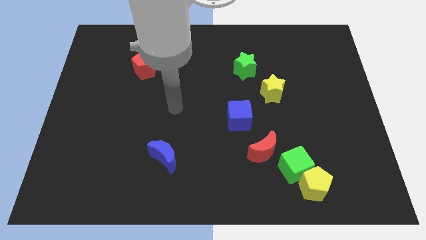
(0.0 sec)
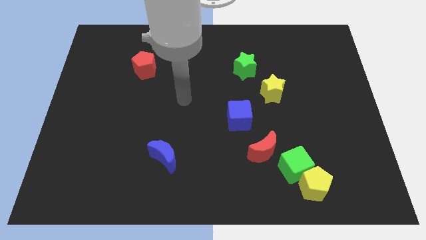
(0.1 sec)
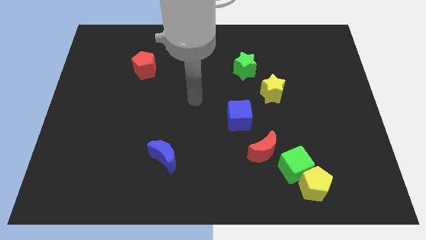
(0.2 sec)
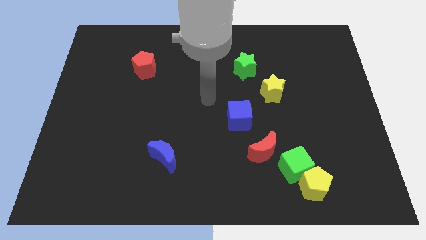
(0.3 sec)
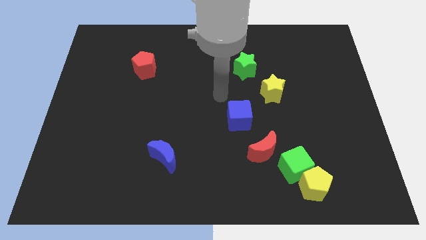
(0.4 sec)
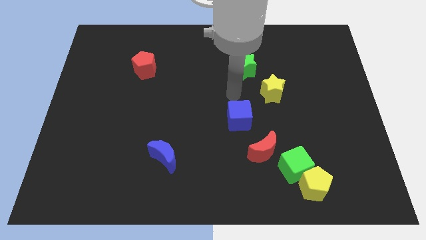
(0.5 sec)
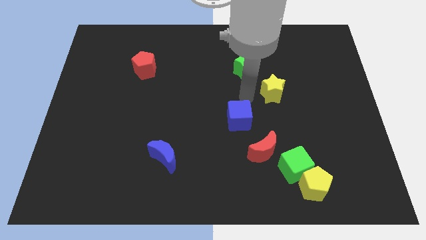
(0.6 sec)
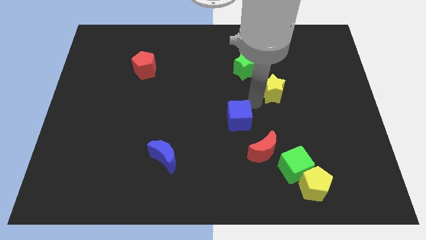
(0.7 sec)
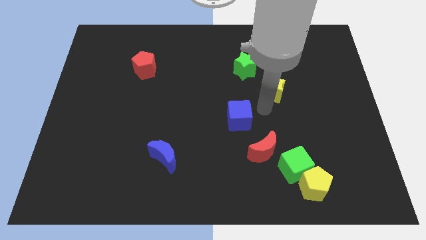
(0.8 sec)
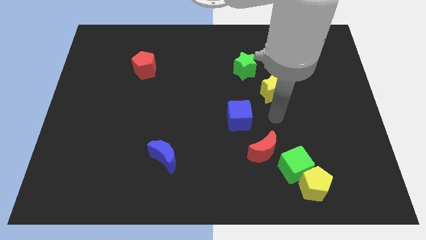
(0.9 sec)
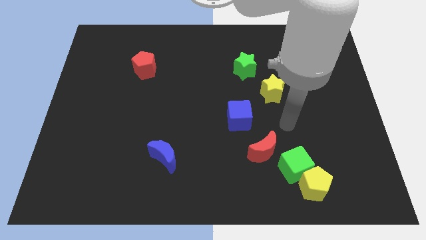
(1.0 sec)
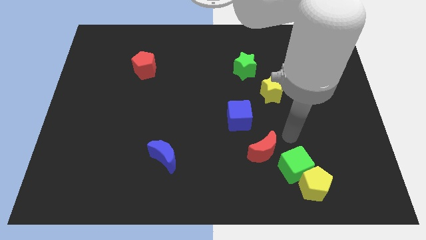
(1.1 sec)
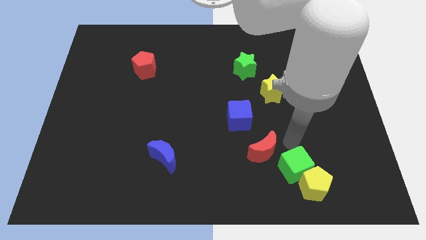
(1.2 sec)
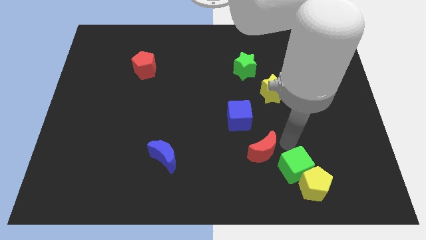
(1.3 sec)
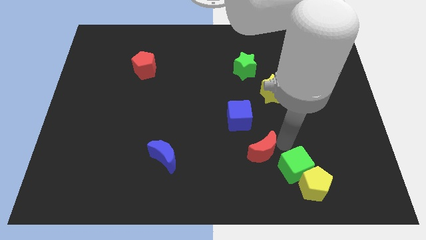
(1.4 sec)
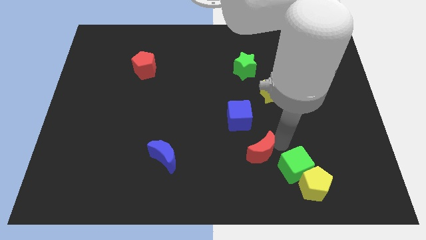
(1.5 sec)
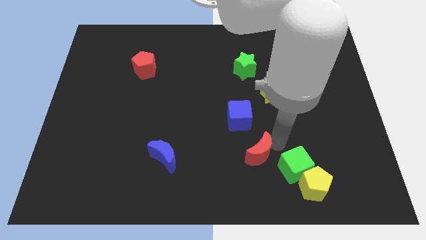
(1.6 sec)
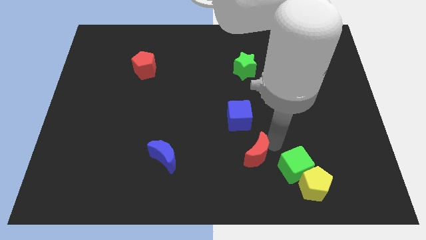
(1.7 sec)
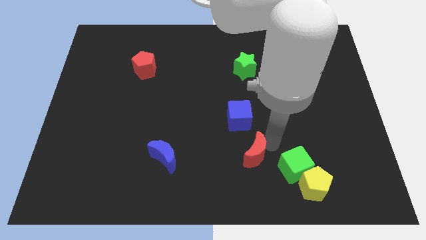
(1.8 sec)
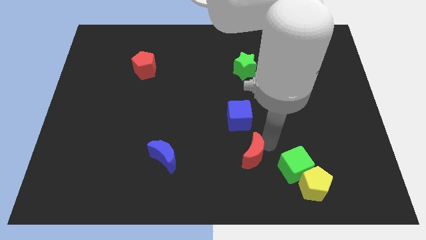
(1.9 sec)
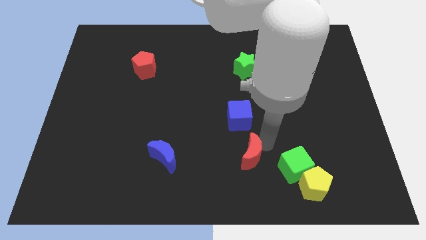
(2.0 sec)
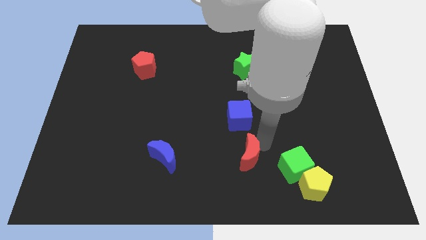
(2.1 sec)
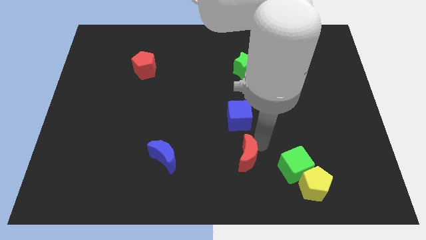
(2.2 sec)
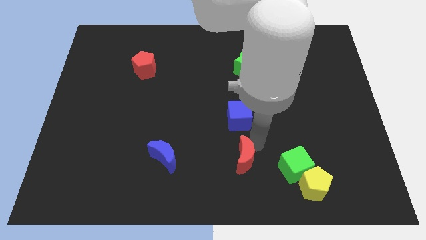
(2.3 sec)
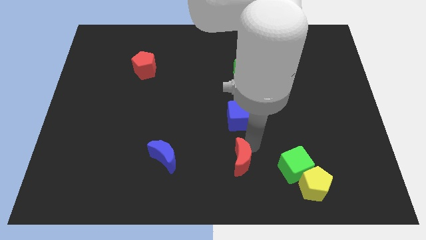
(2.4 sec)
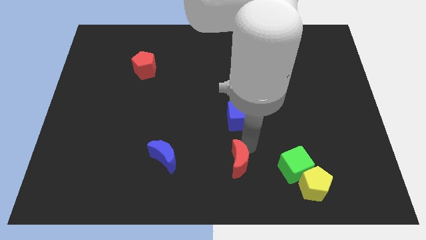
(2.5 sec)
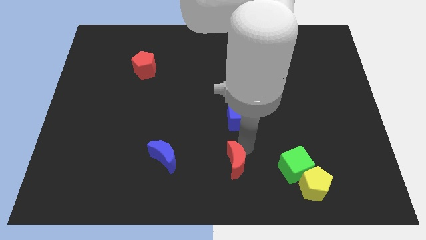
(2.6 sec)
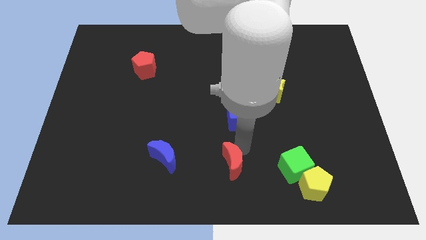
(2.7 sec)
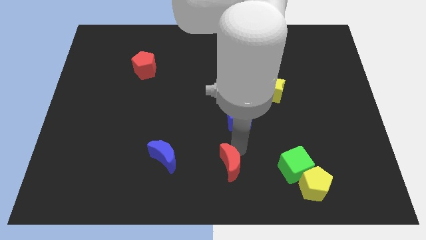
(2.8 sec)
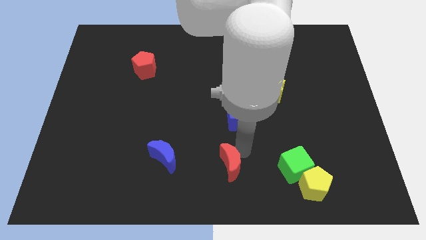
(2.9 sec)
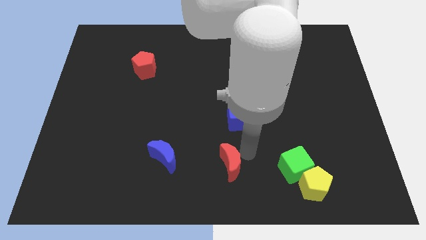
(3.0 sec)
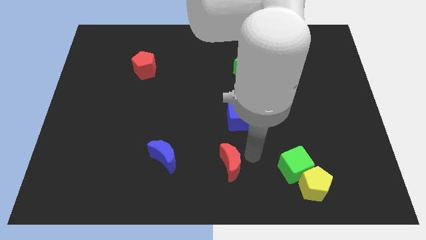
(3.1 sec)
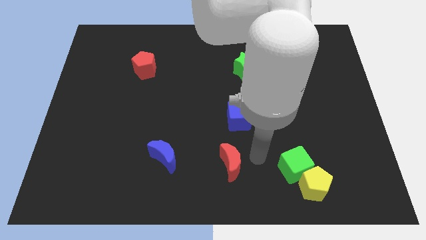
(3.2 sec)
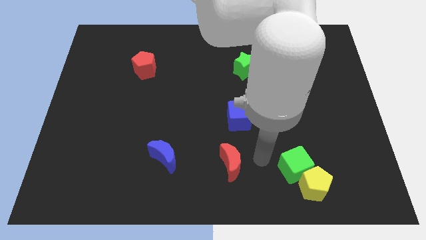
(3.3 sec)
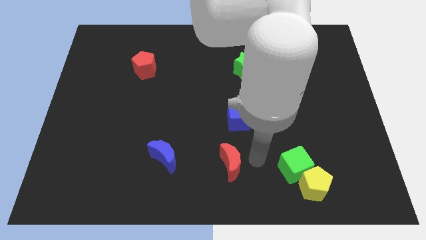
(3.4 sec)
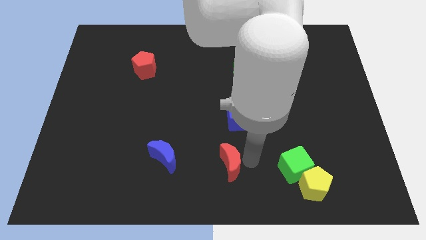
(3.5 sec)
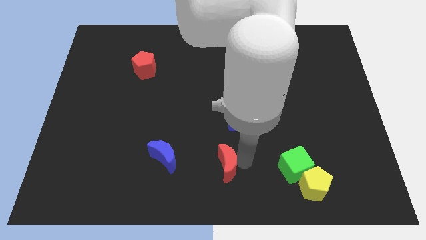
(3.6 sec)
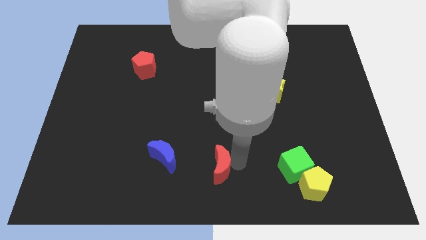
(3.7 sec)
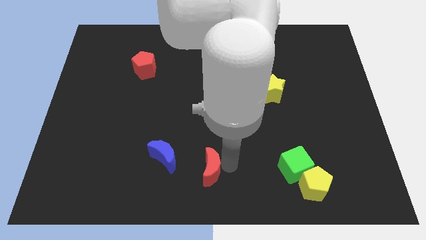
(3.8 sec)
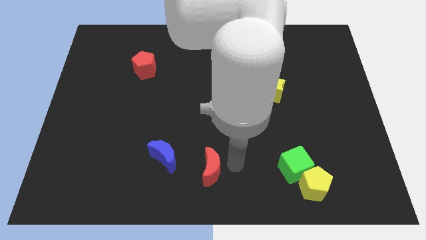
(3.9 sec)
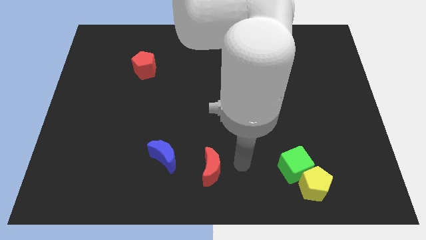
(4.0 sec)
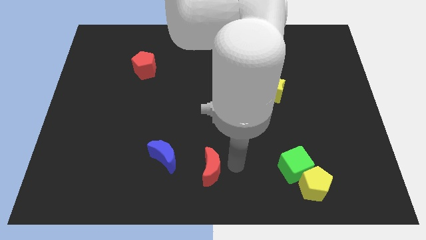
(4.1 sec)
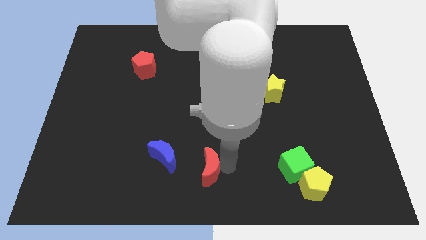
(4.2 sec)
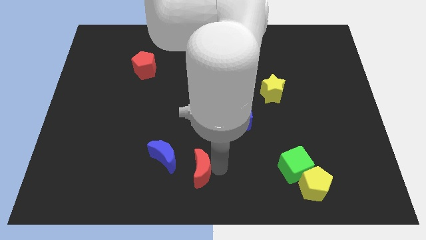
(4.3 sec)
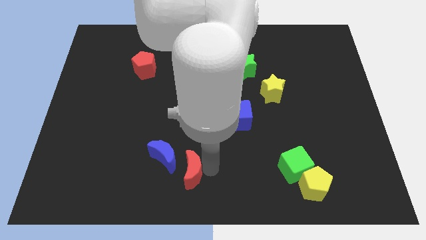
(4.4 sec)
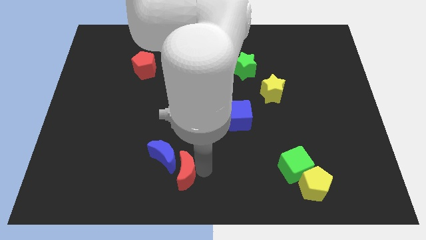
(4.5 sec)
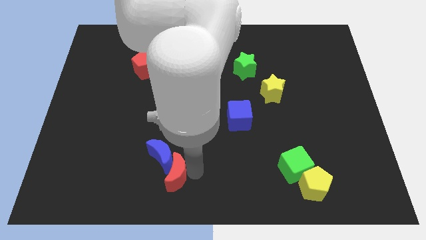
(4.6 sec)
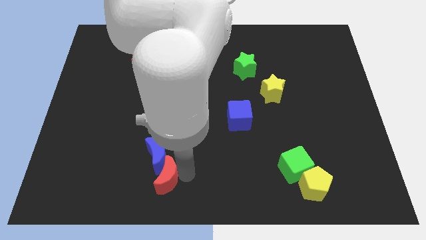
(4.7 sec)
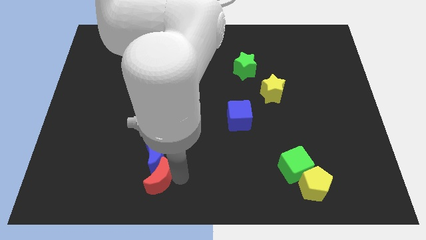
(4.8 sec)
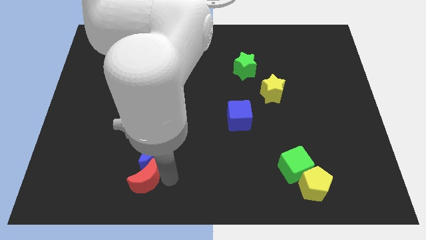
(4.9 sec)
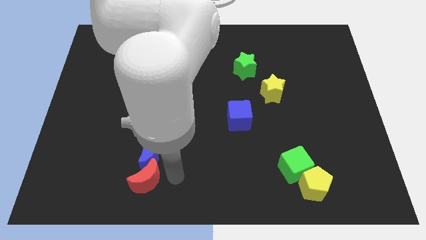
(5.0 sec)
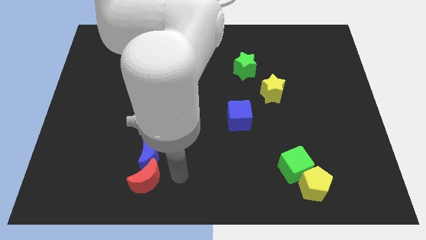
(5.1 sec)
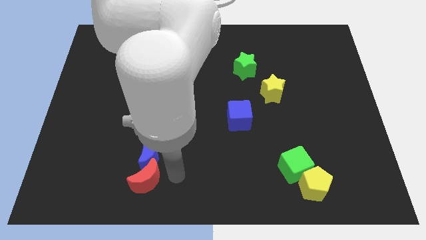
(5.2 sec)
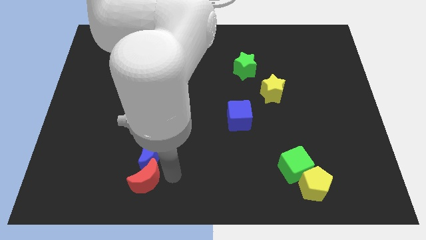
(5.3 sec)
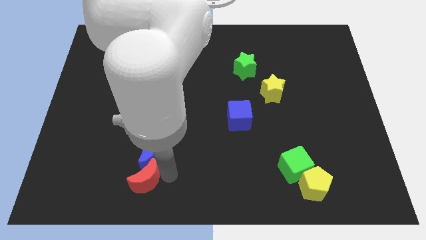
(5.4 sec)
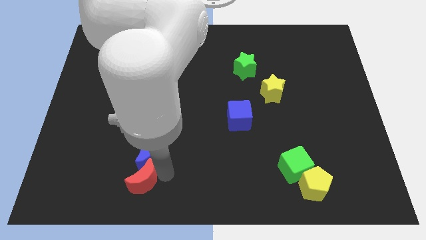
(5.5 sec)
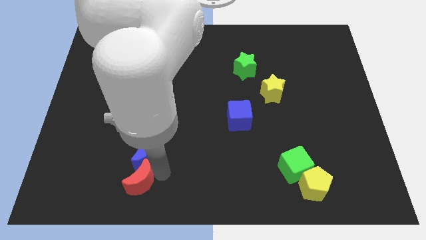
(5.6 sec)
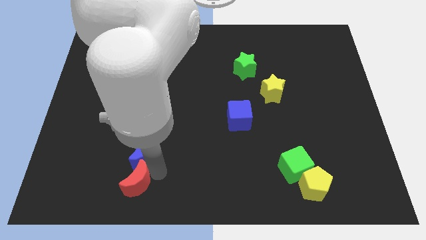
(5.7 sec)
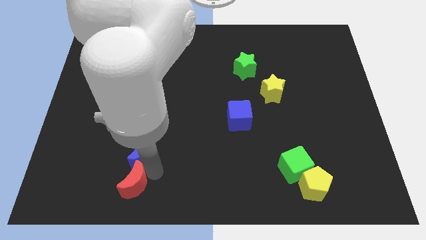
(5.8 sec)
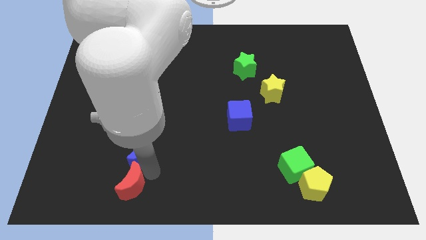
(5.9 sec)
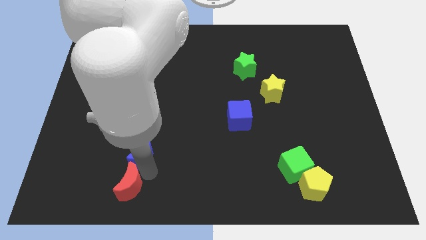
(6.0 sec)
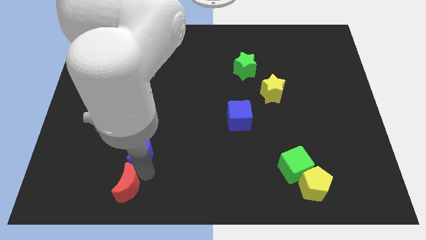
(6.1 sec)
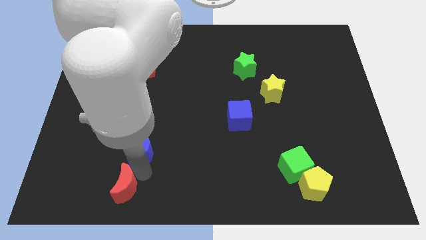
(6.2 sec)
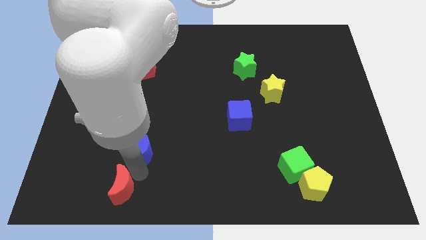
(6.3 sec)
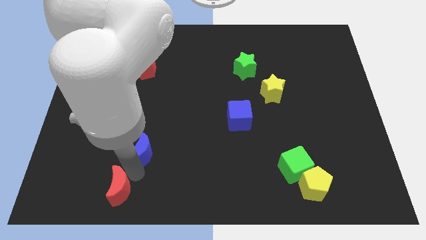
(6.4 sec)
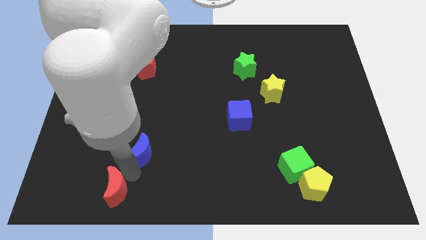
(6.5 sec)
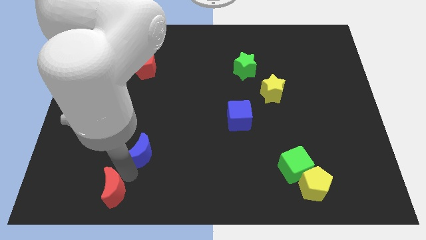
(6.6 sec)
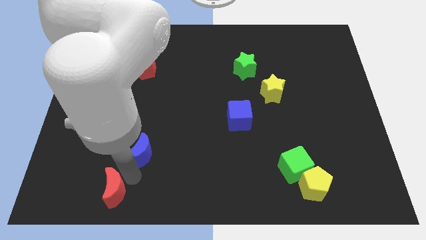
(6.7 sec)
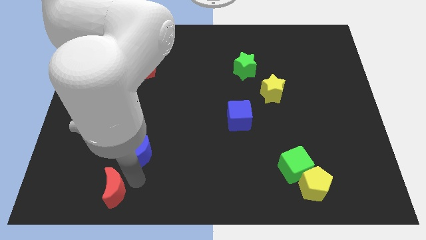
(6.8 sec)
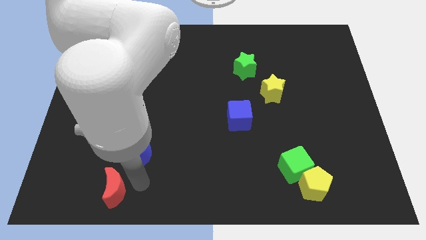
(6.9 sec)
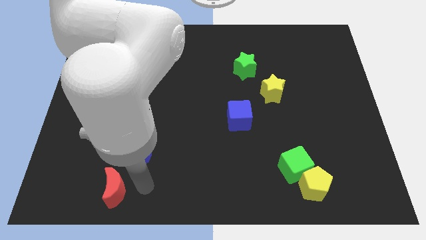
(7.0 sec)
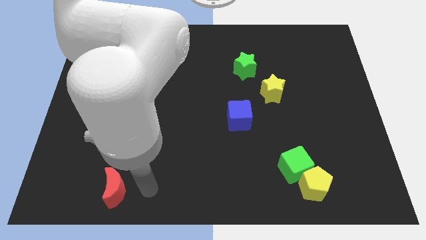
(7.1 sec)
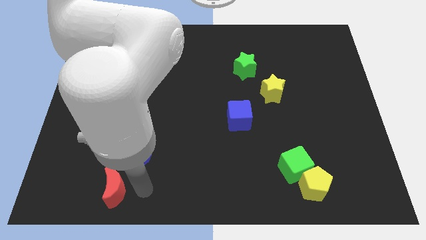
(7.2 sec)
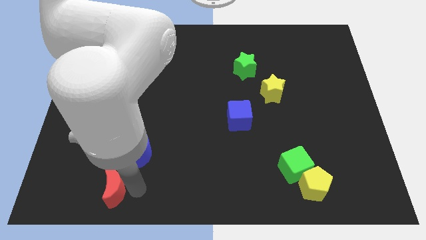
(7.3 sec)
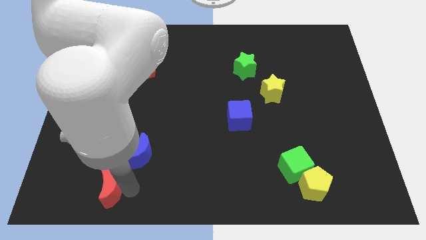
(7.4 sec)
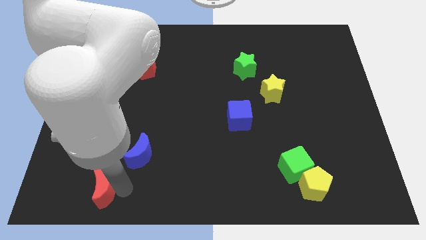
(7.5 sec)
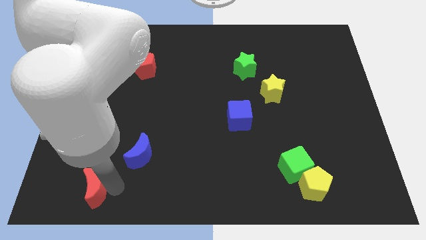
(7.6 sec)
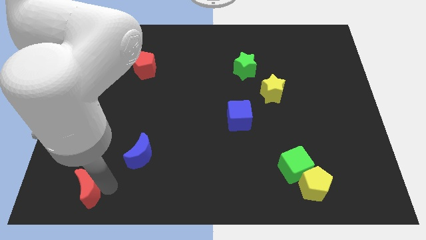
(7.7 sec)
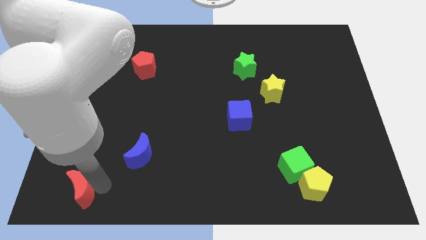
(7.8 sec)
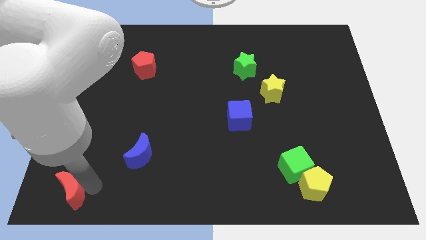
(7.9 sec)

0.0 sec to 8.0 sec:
put the red moon to the bottom left
